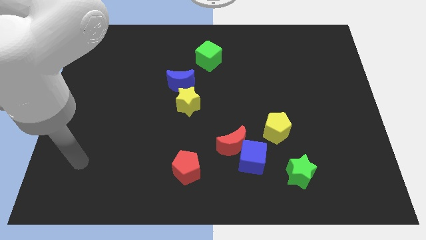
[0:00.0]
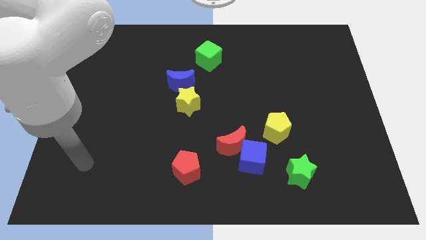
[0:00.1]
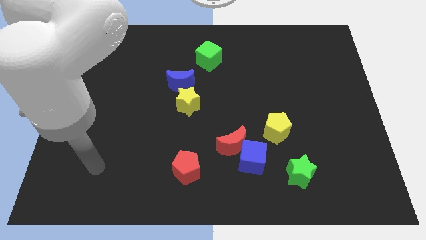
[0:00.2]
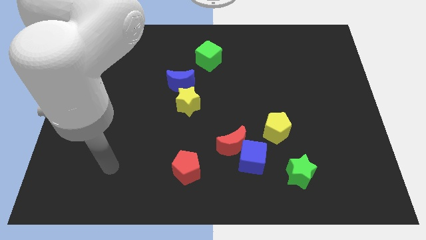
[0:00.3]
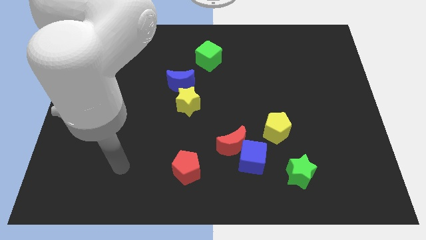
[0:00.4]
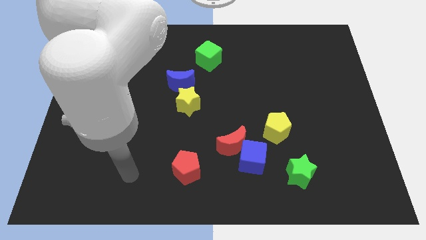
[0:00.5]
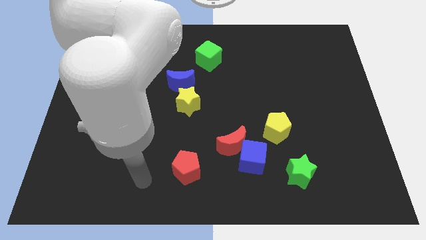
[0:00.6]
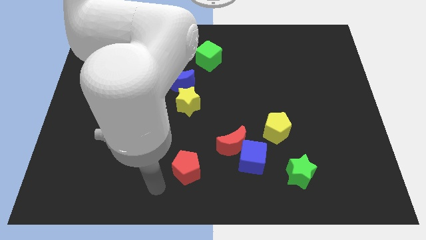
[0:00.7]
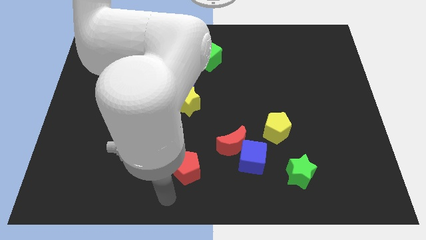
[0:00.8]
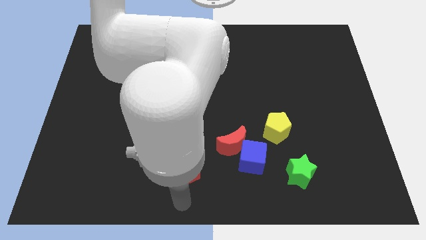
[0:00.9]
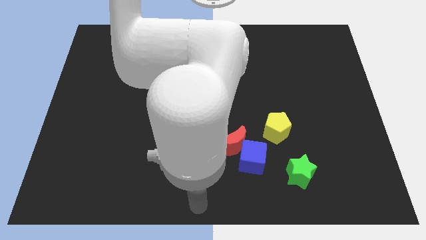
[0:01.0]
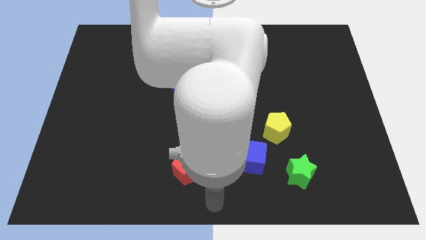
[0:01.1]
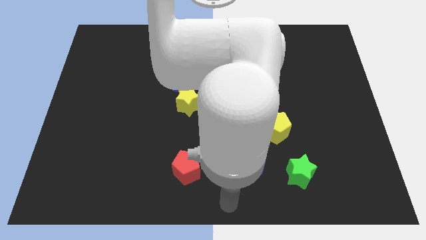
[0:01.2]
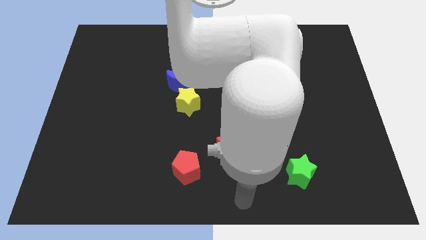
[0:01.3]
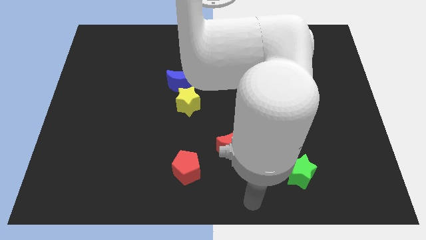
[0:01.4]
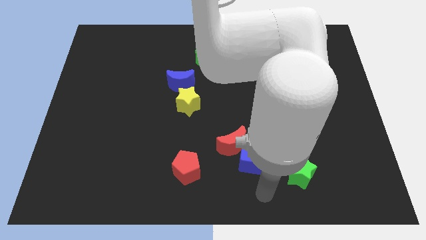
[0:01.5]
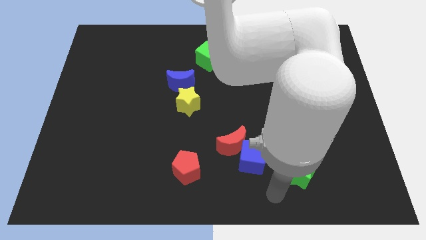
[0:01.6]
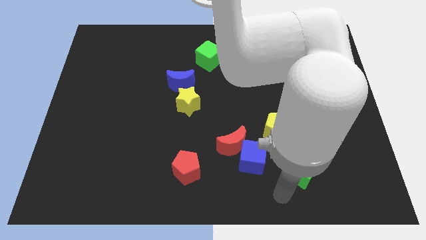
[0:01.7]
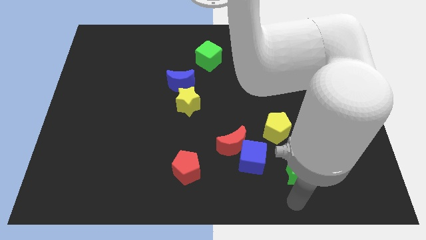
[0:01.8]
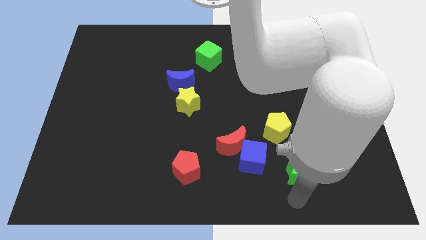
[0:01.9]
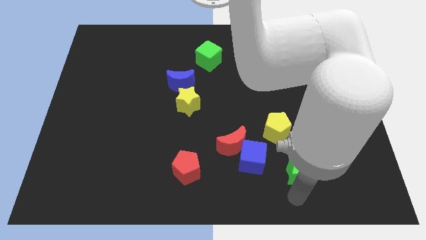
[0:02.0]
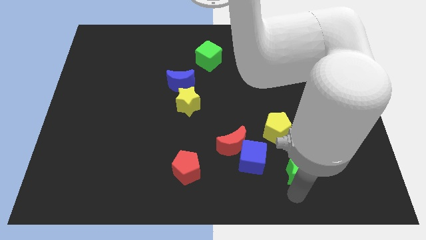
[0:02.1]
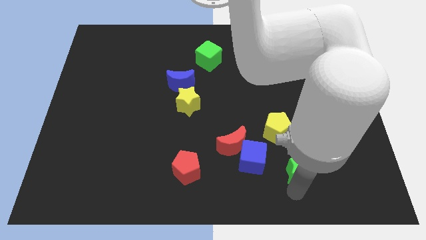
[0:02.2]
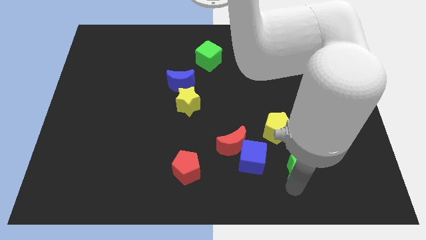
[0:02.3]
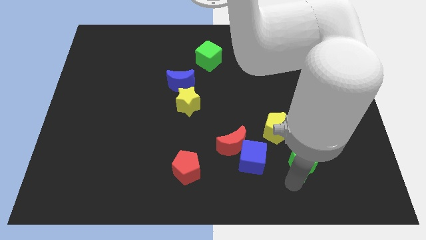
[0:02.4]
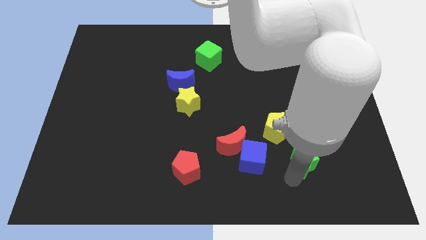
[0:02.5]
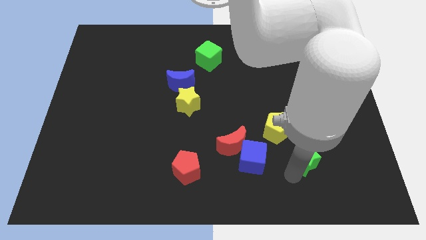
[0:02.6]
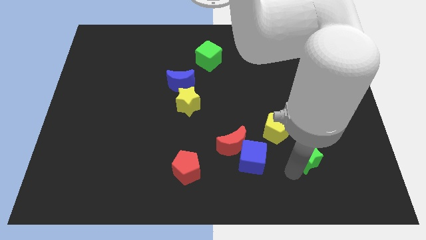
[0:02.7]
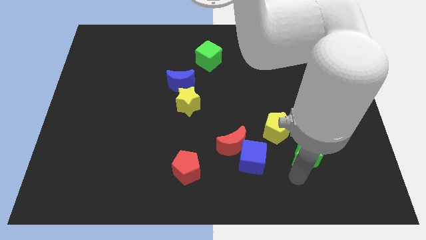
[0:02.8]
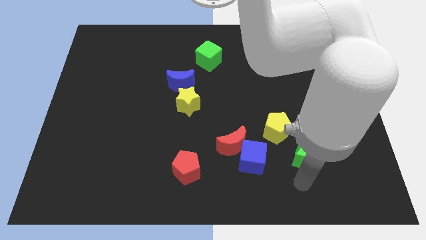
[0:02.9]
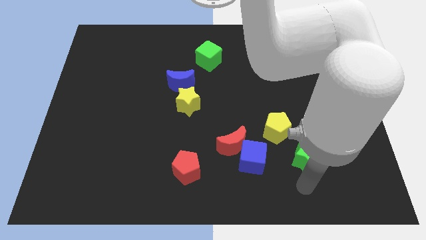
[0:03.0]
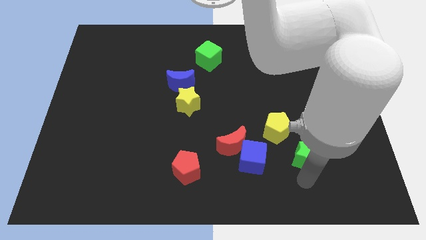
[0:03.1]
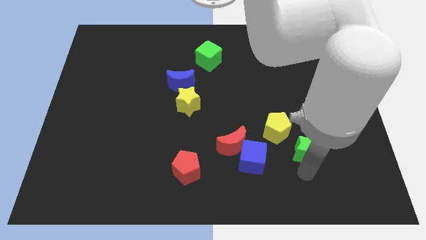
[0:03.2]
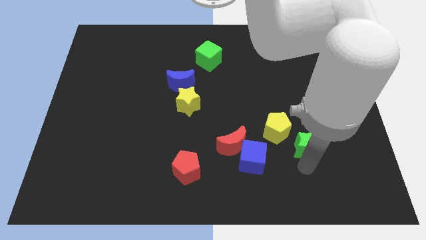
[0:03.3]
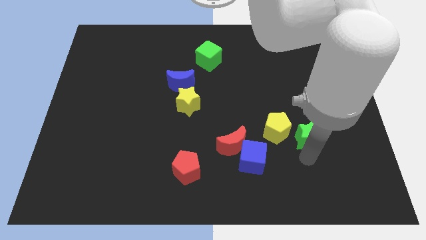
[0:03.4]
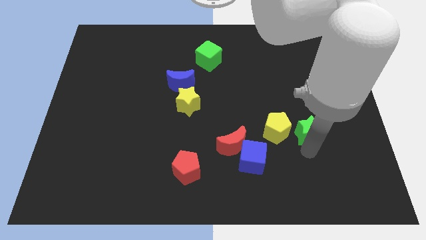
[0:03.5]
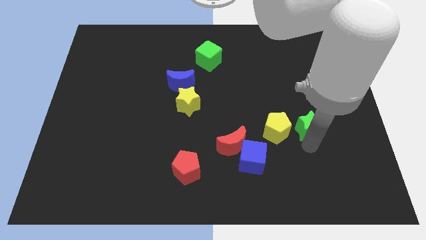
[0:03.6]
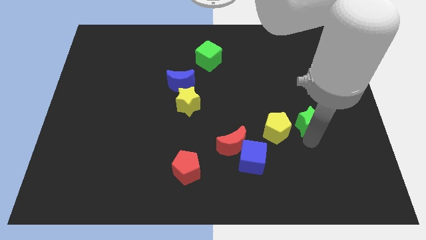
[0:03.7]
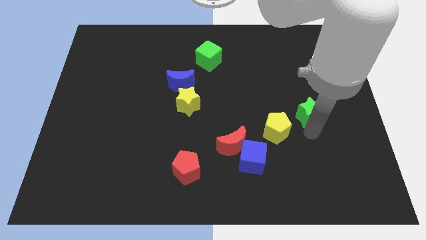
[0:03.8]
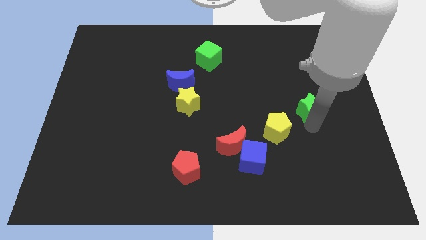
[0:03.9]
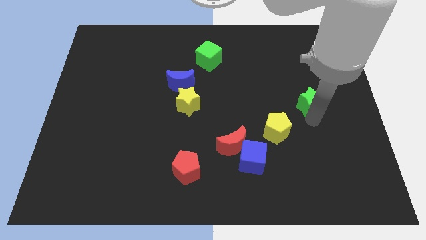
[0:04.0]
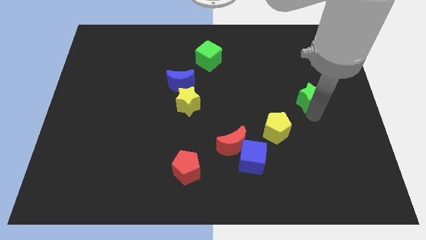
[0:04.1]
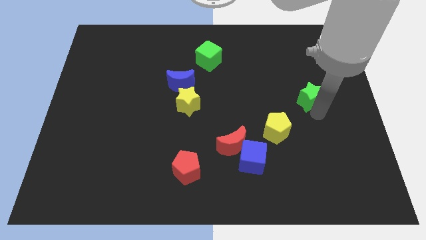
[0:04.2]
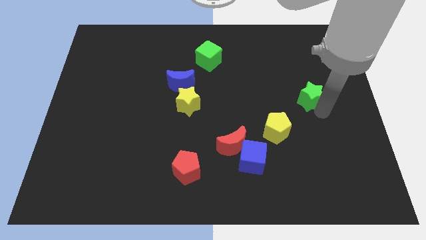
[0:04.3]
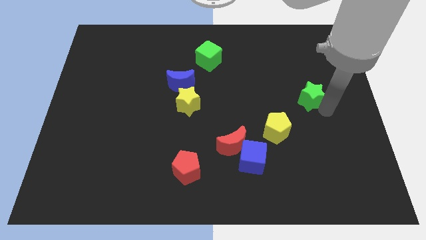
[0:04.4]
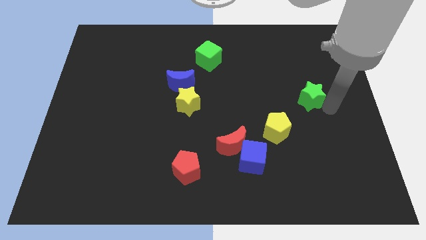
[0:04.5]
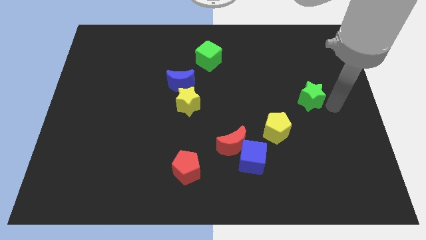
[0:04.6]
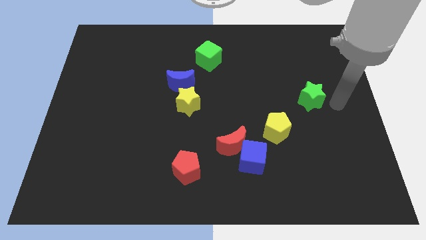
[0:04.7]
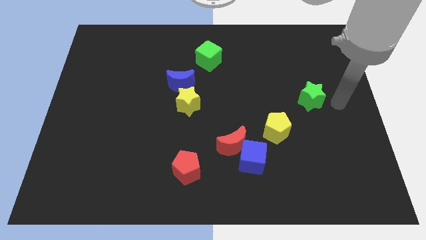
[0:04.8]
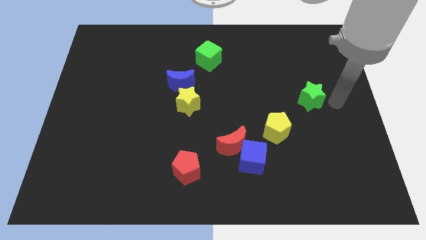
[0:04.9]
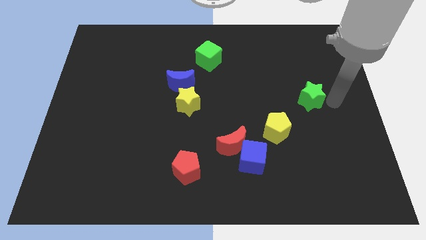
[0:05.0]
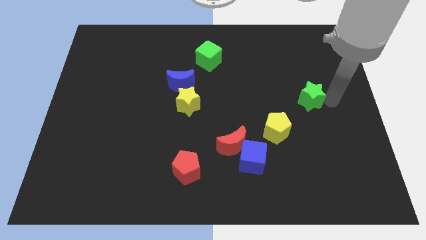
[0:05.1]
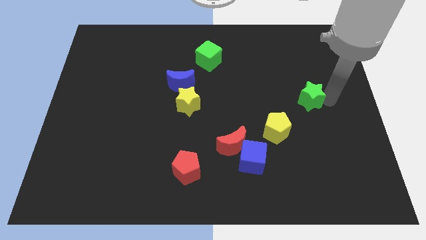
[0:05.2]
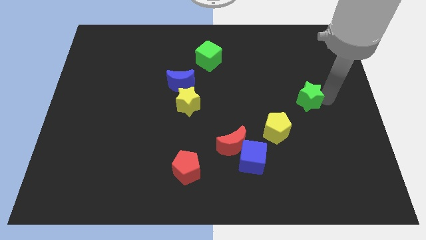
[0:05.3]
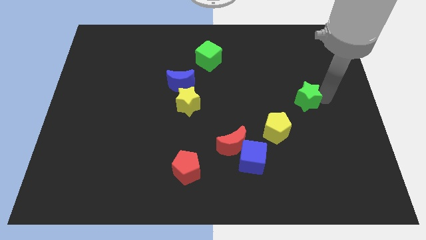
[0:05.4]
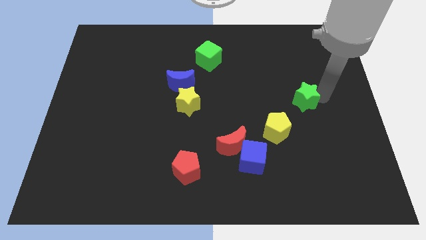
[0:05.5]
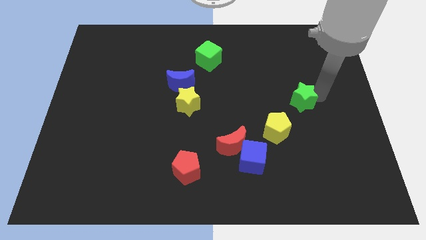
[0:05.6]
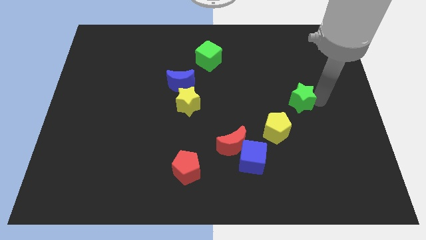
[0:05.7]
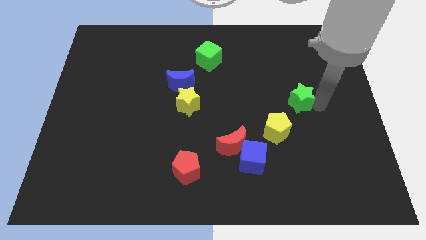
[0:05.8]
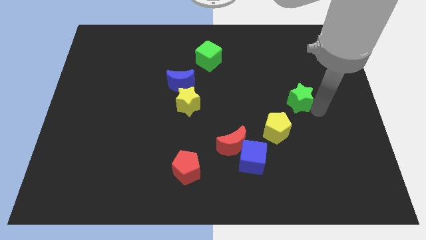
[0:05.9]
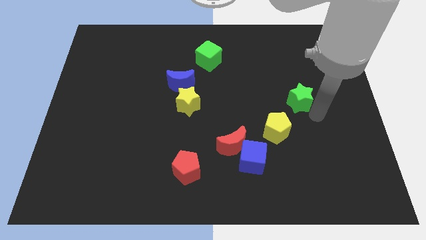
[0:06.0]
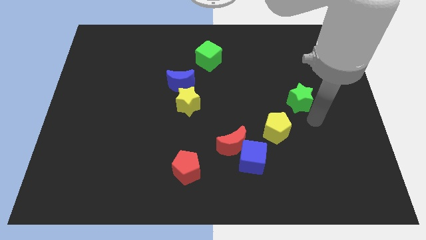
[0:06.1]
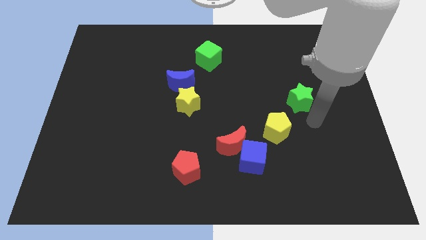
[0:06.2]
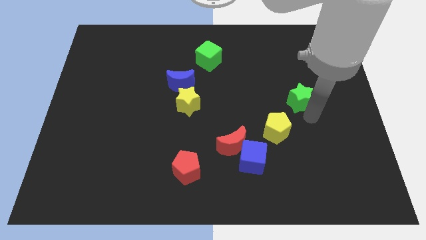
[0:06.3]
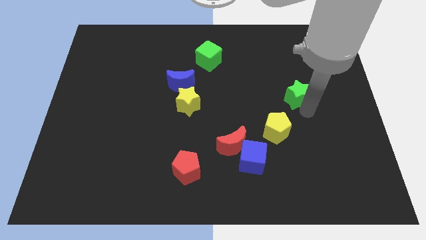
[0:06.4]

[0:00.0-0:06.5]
push the green star up

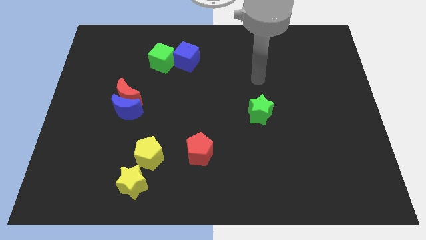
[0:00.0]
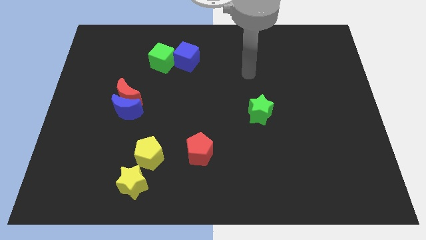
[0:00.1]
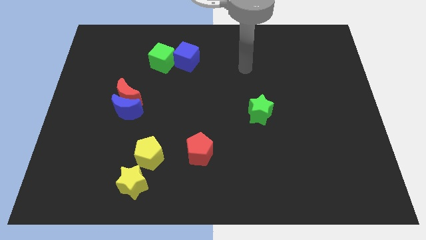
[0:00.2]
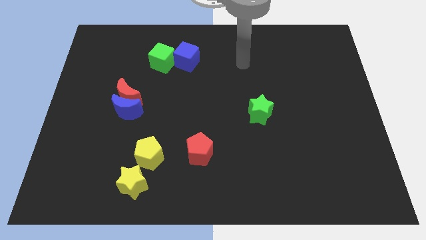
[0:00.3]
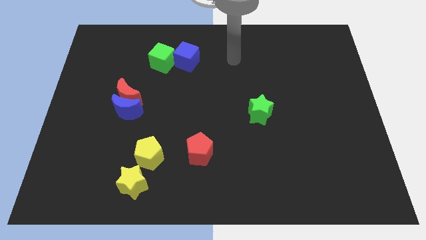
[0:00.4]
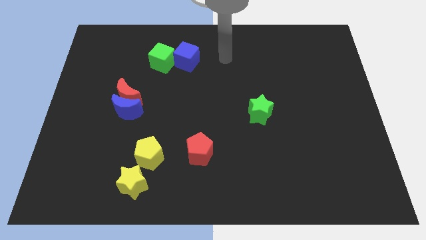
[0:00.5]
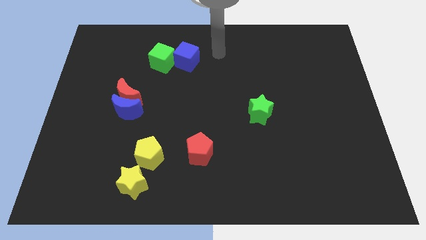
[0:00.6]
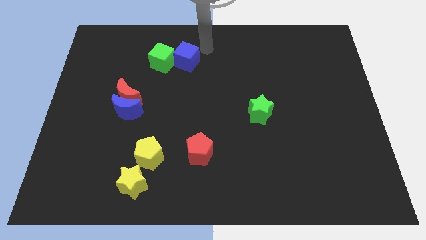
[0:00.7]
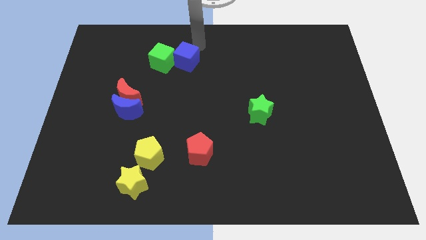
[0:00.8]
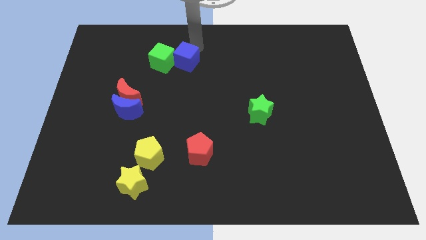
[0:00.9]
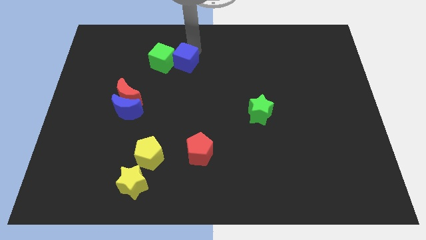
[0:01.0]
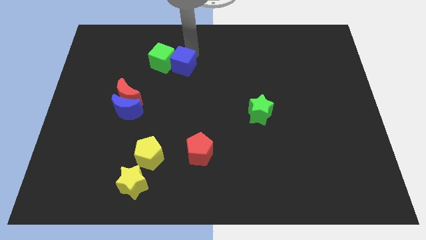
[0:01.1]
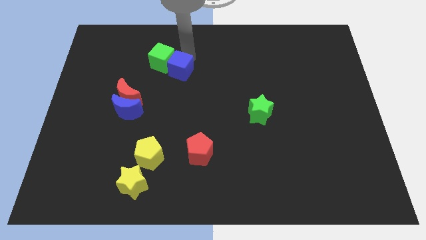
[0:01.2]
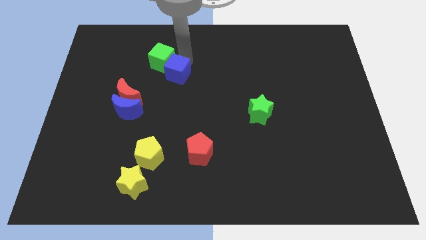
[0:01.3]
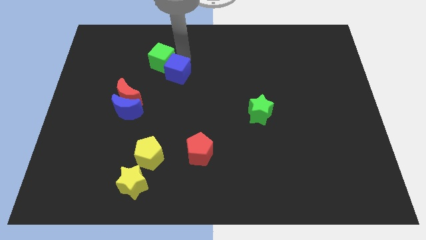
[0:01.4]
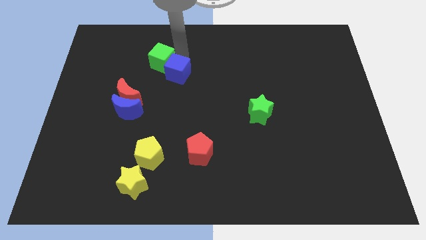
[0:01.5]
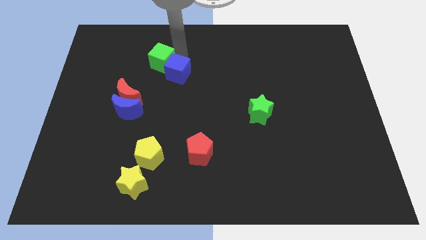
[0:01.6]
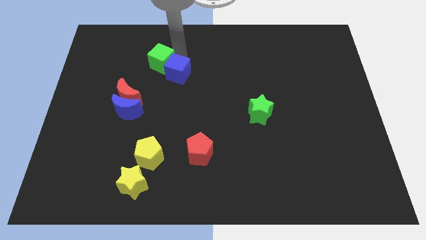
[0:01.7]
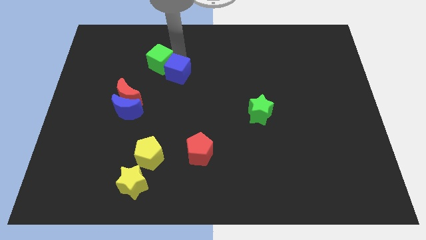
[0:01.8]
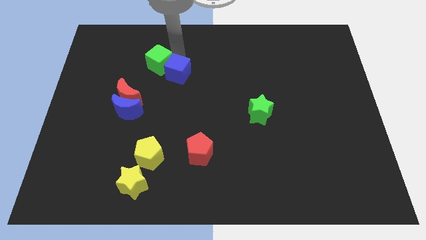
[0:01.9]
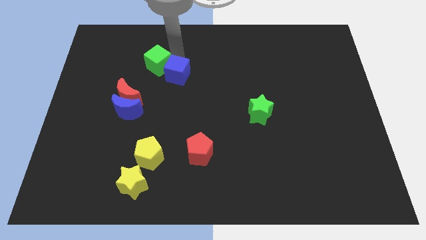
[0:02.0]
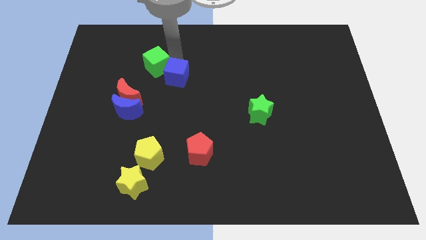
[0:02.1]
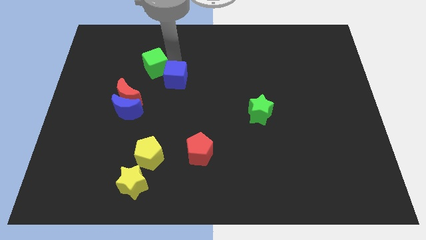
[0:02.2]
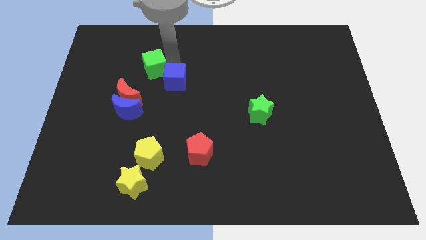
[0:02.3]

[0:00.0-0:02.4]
slightly move the blue cube down
